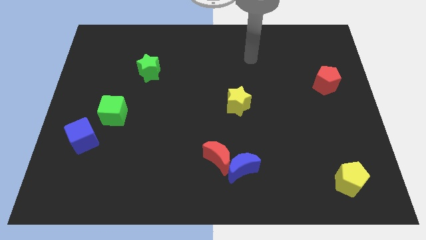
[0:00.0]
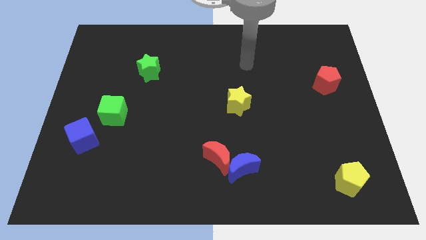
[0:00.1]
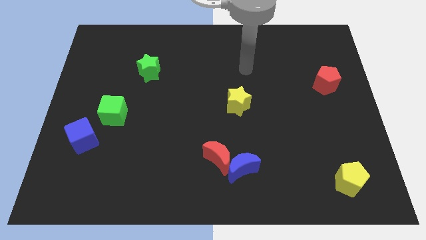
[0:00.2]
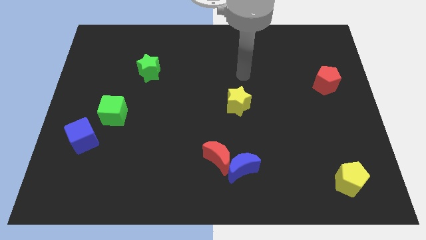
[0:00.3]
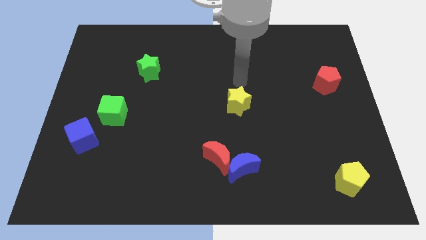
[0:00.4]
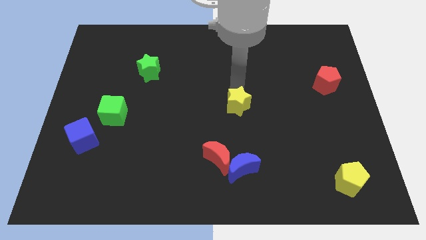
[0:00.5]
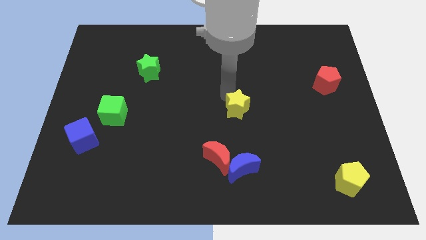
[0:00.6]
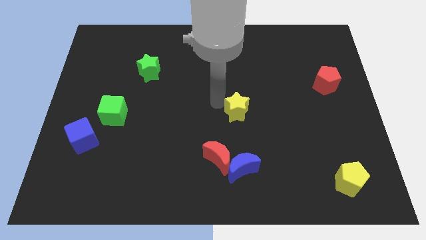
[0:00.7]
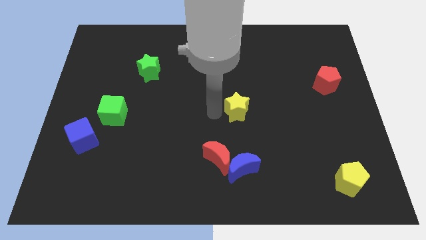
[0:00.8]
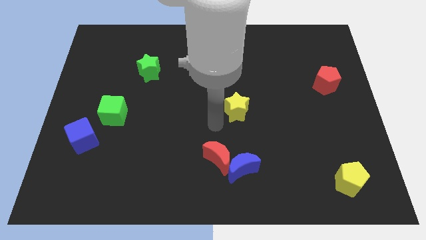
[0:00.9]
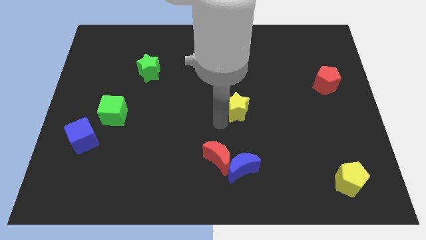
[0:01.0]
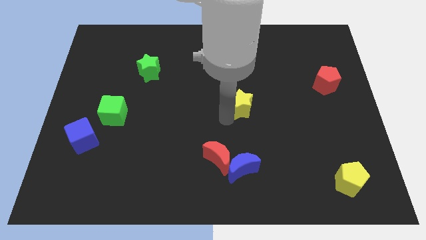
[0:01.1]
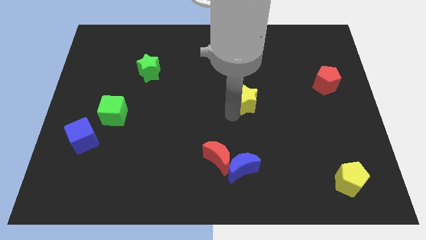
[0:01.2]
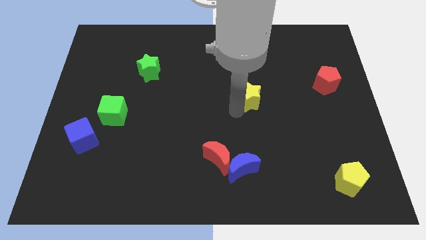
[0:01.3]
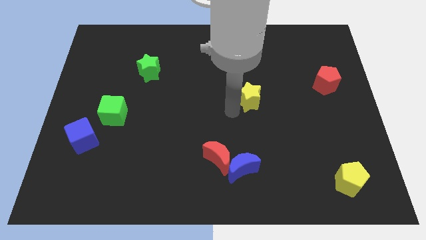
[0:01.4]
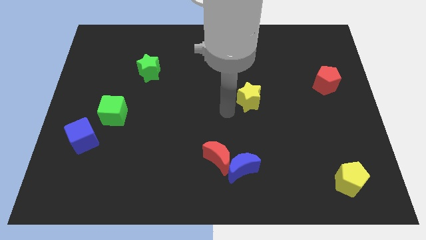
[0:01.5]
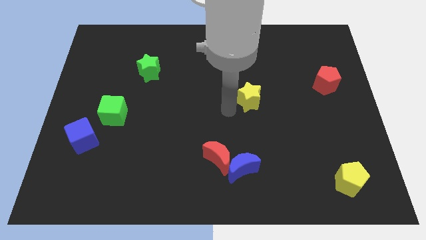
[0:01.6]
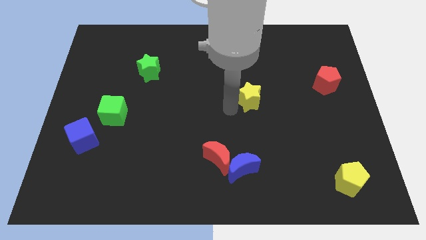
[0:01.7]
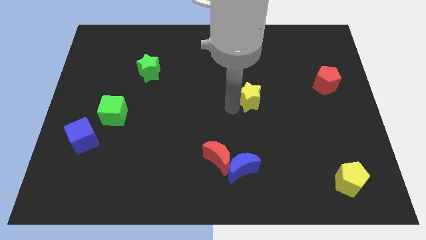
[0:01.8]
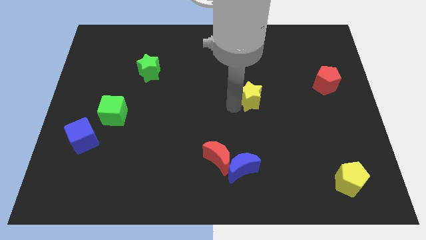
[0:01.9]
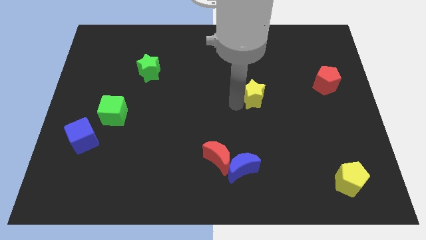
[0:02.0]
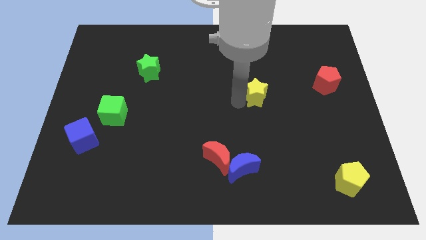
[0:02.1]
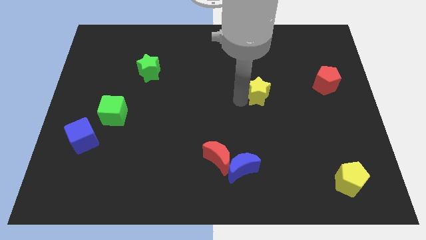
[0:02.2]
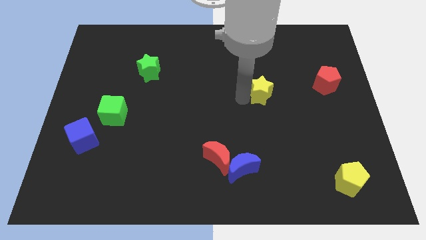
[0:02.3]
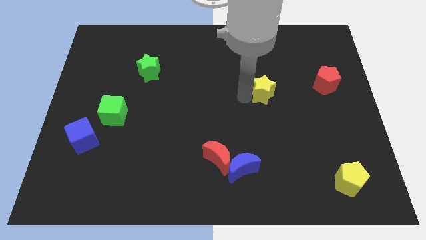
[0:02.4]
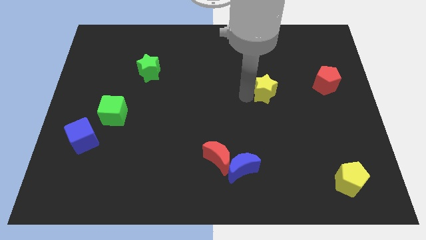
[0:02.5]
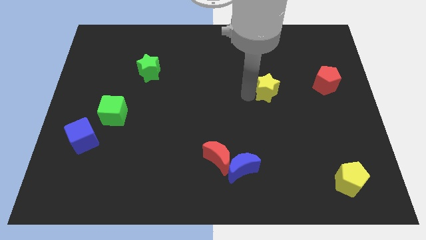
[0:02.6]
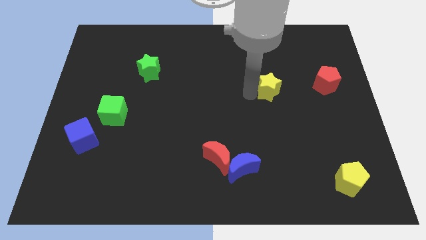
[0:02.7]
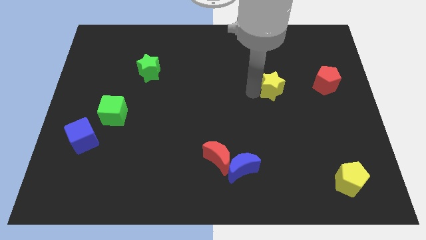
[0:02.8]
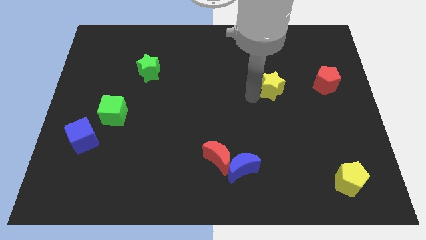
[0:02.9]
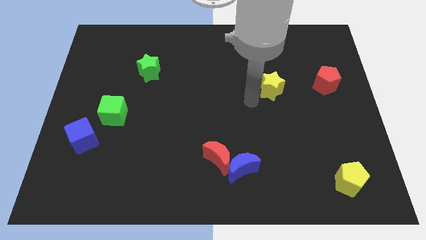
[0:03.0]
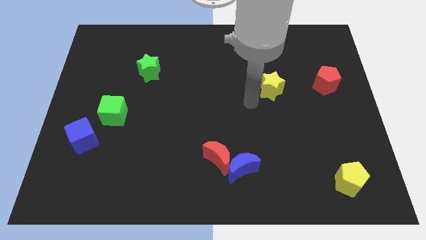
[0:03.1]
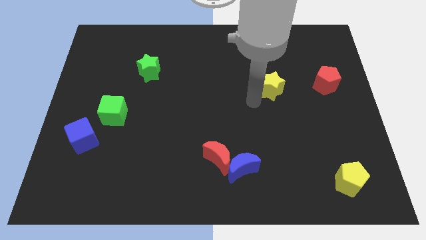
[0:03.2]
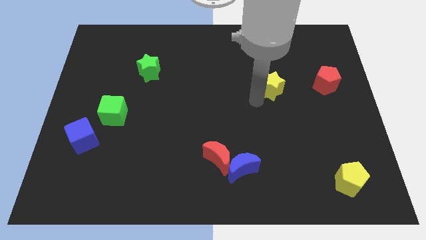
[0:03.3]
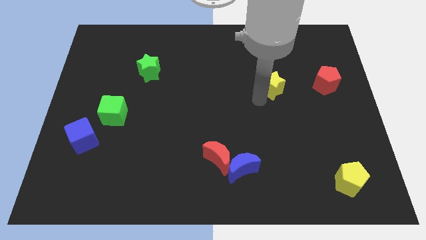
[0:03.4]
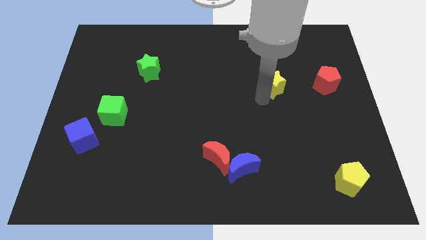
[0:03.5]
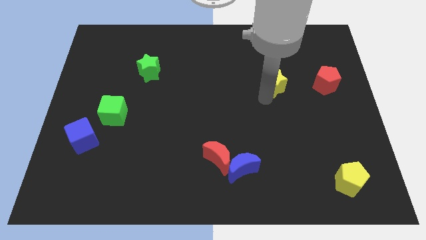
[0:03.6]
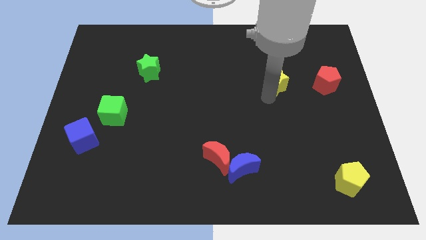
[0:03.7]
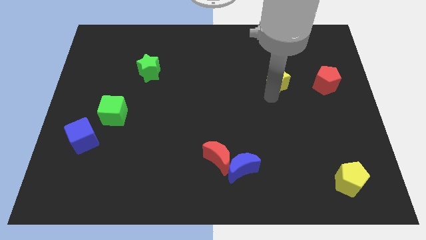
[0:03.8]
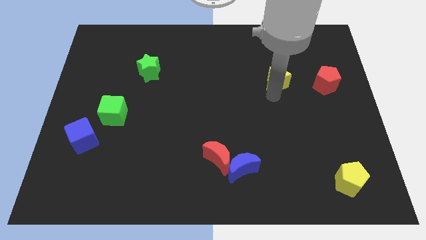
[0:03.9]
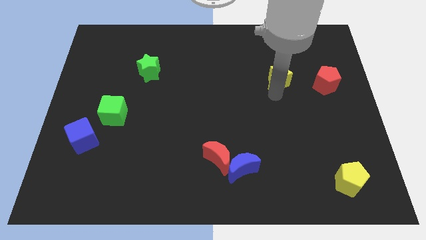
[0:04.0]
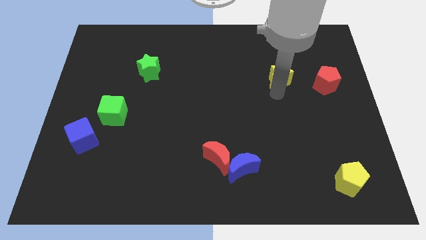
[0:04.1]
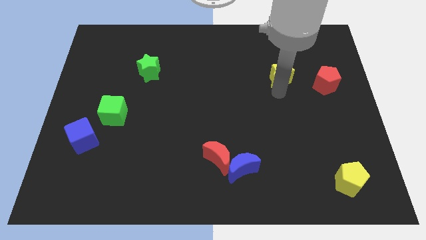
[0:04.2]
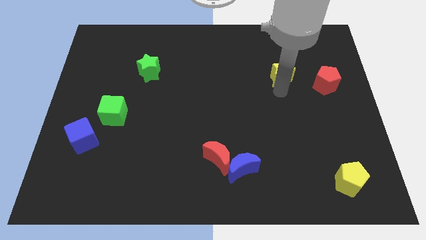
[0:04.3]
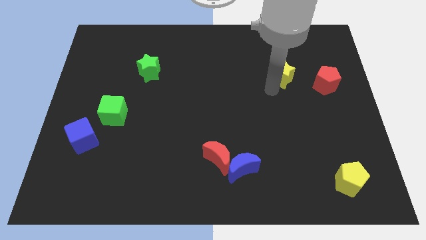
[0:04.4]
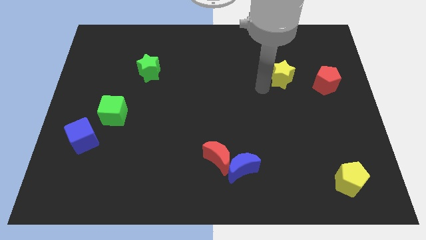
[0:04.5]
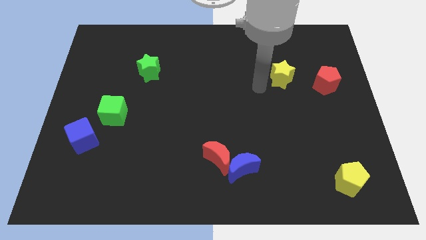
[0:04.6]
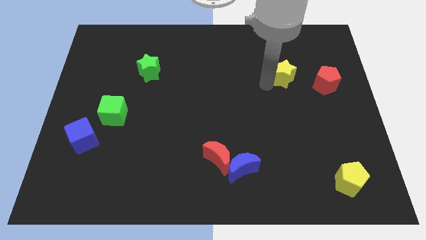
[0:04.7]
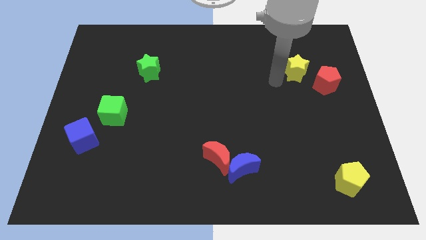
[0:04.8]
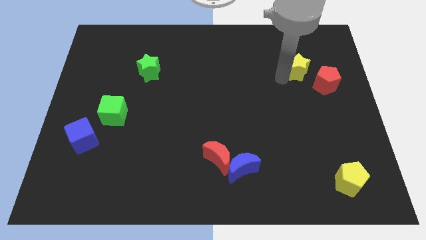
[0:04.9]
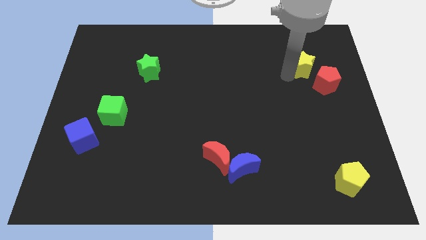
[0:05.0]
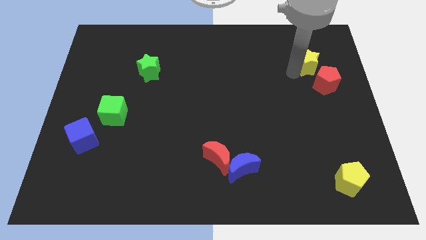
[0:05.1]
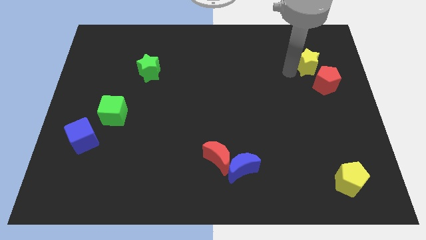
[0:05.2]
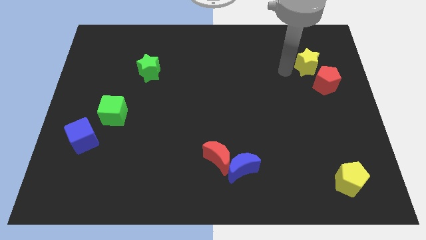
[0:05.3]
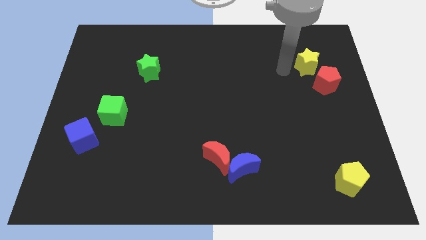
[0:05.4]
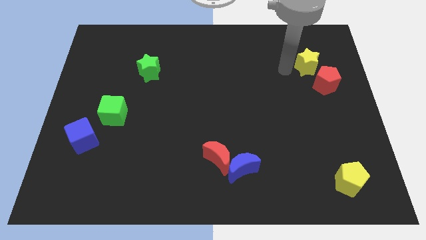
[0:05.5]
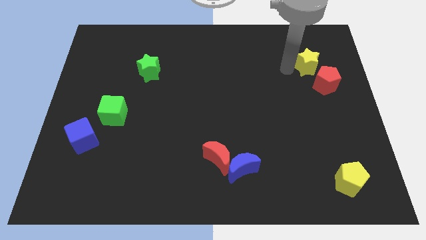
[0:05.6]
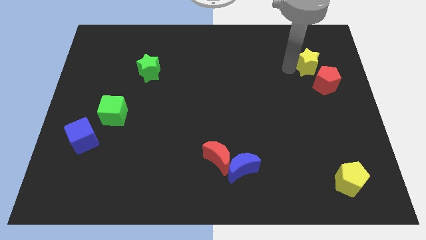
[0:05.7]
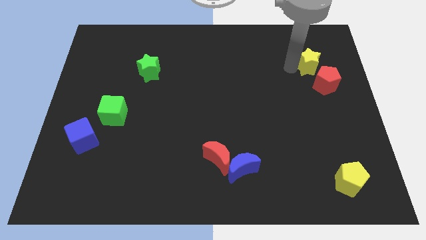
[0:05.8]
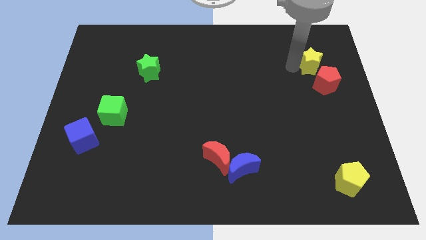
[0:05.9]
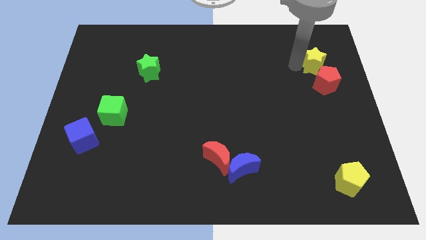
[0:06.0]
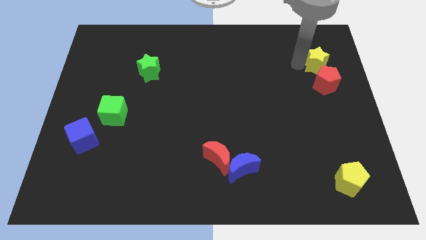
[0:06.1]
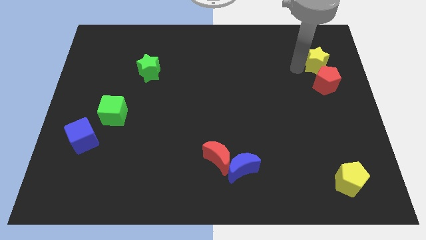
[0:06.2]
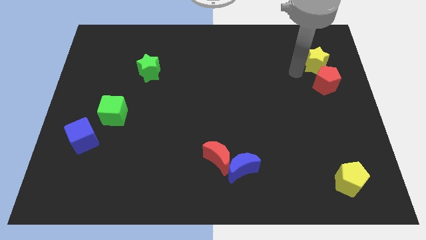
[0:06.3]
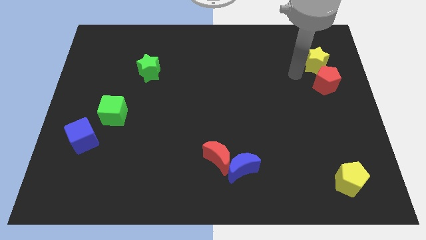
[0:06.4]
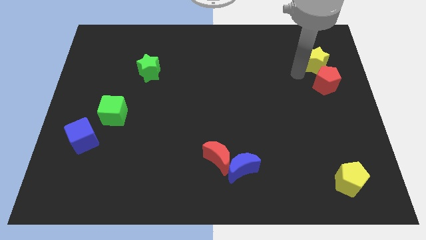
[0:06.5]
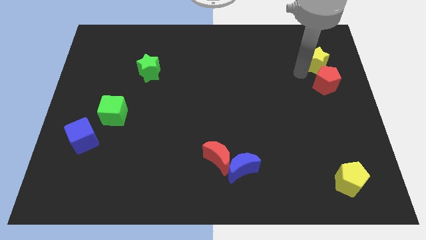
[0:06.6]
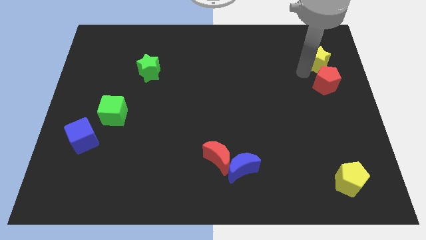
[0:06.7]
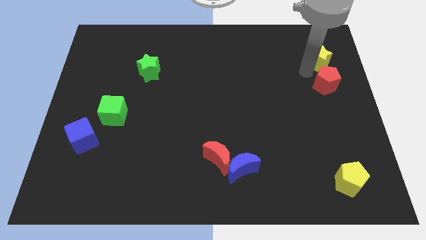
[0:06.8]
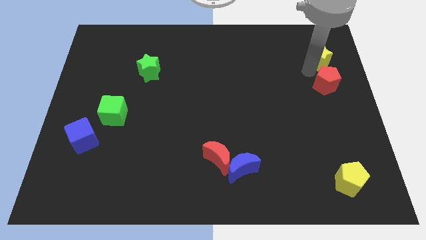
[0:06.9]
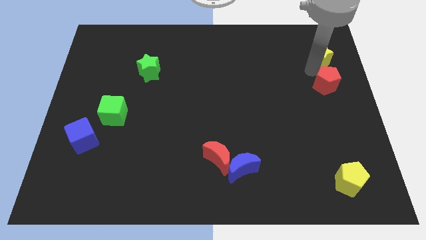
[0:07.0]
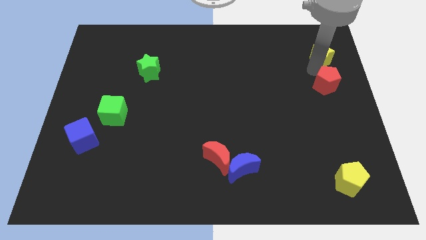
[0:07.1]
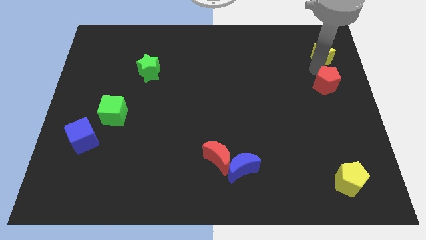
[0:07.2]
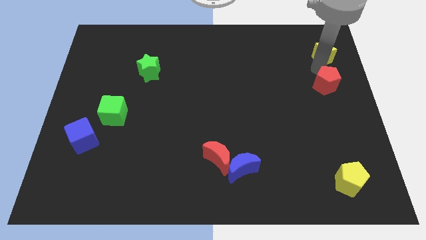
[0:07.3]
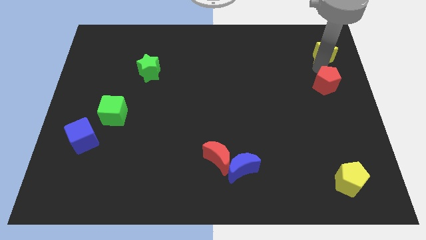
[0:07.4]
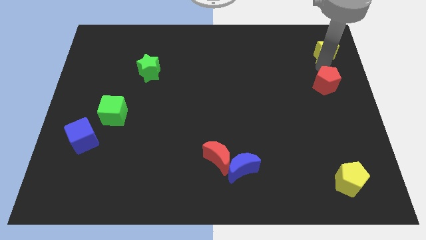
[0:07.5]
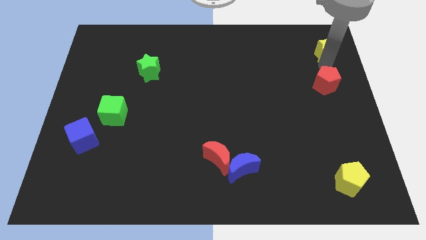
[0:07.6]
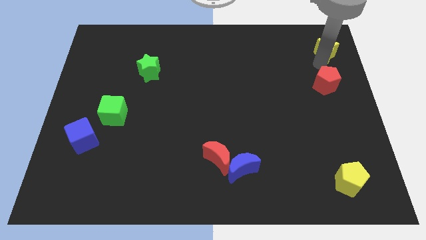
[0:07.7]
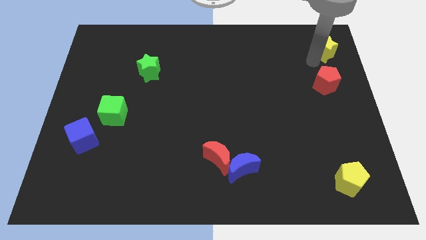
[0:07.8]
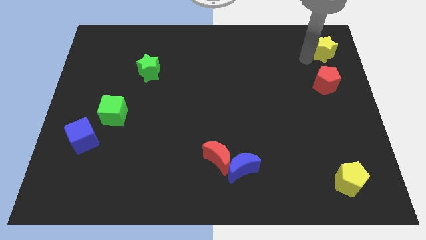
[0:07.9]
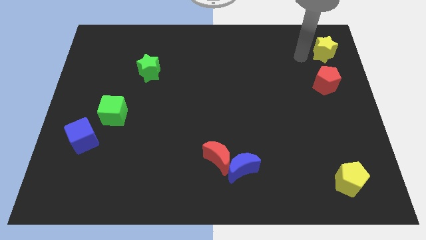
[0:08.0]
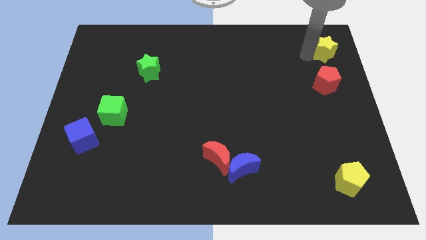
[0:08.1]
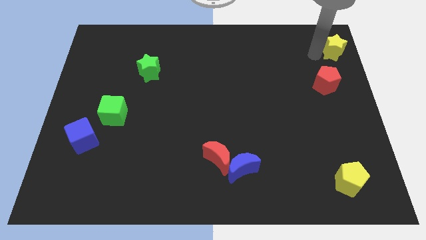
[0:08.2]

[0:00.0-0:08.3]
move the yellow star to the top right
